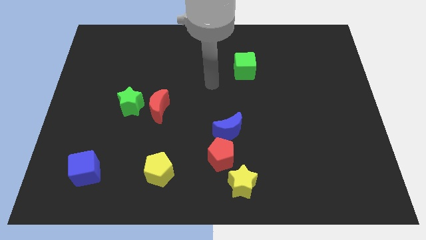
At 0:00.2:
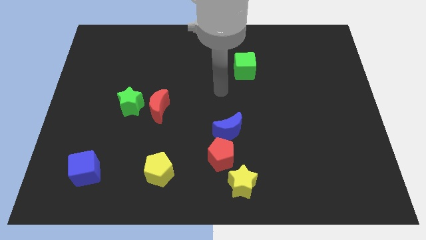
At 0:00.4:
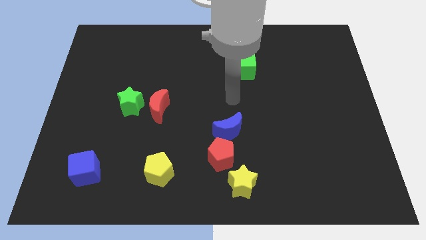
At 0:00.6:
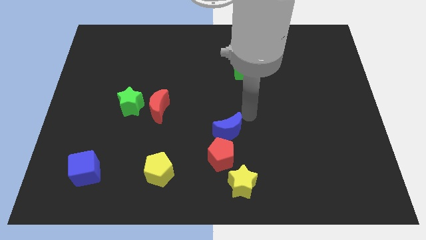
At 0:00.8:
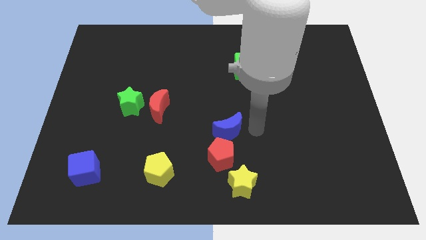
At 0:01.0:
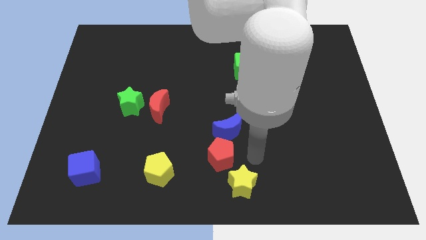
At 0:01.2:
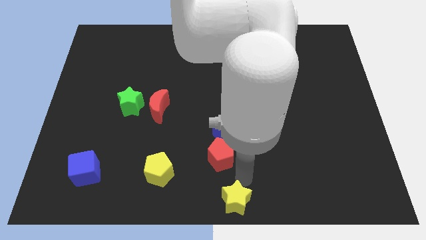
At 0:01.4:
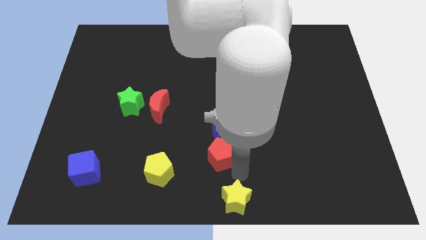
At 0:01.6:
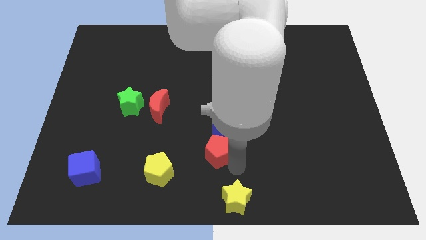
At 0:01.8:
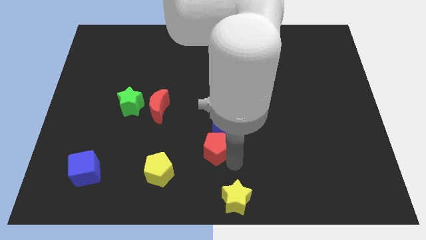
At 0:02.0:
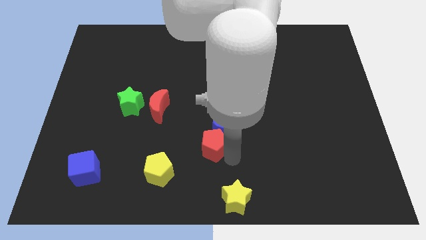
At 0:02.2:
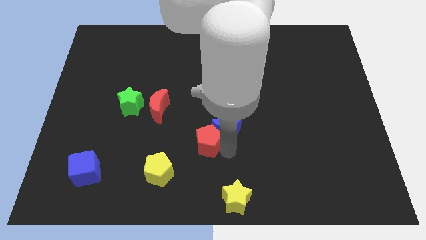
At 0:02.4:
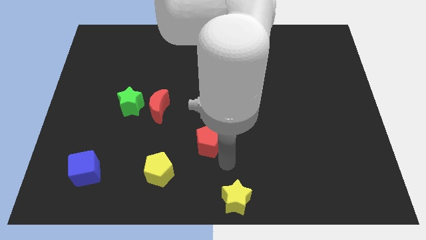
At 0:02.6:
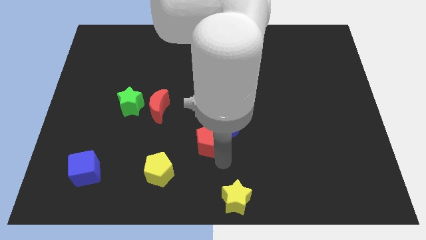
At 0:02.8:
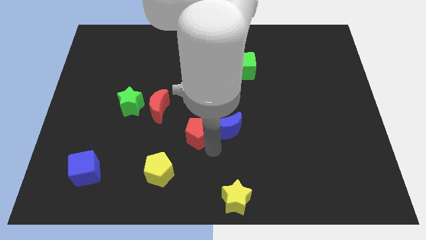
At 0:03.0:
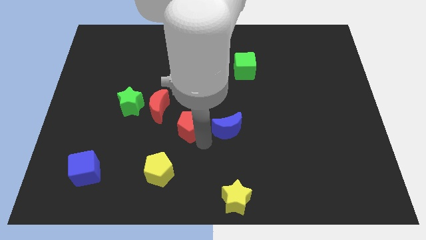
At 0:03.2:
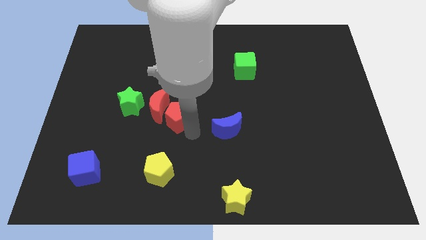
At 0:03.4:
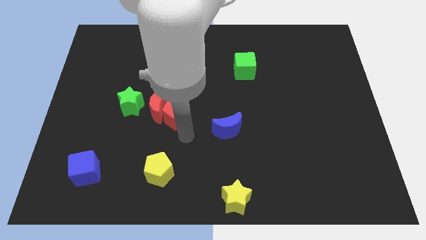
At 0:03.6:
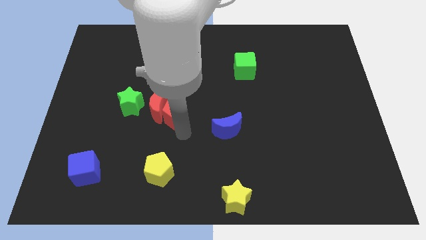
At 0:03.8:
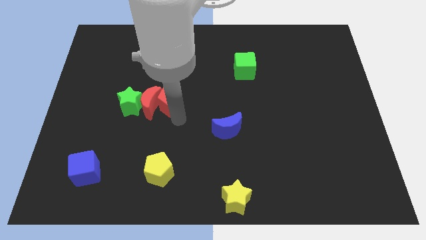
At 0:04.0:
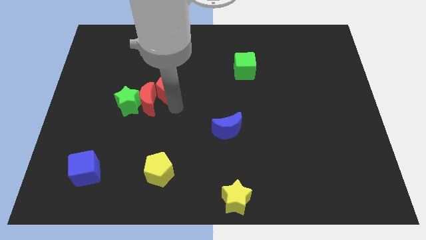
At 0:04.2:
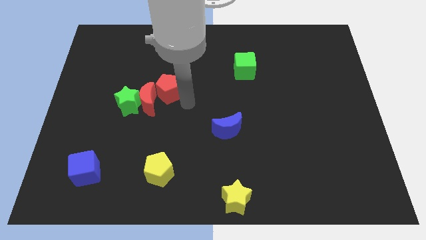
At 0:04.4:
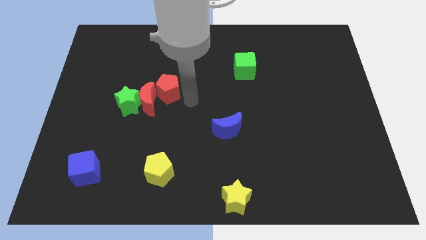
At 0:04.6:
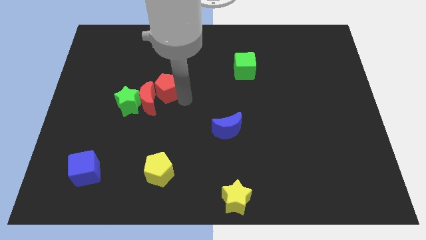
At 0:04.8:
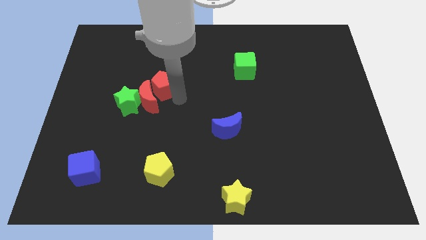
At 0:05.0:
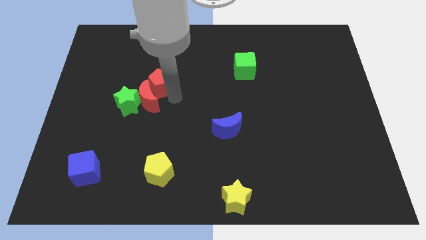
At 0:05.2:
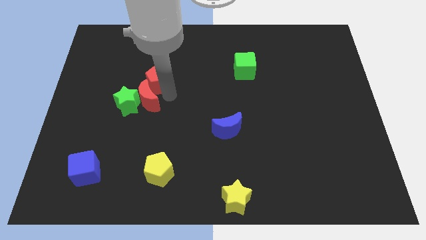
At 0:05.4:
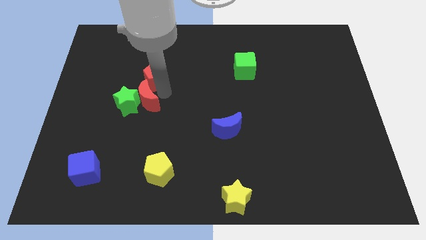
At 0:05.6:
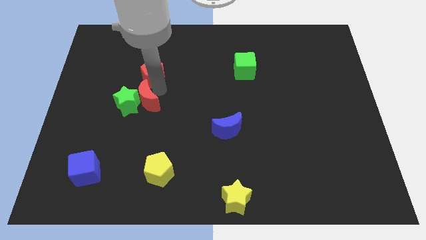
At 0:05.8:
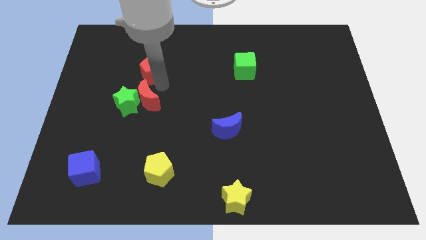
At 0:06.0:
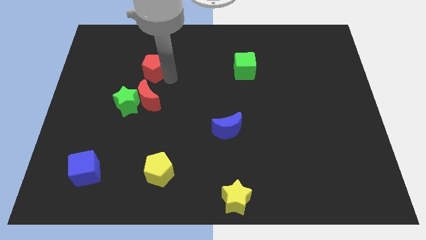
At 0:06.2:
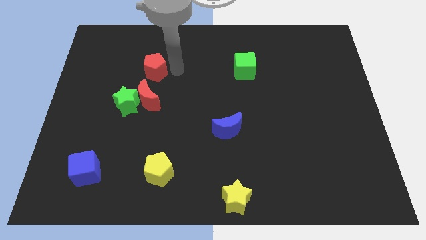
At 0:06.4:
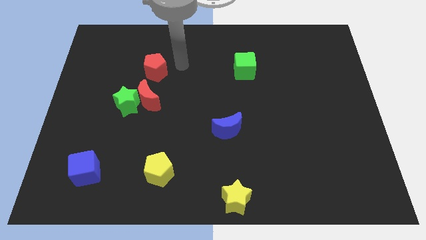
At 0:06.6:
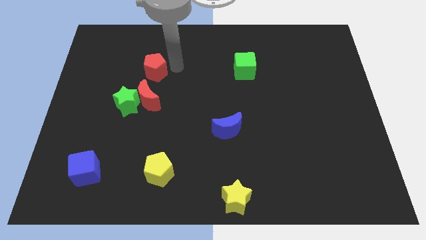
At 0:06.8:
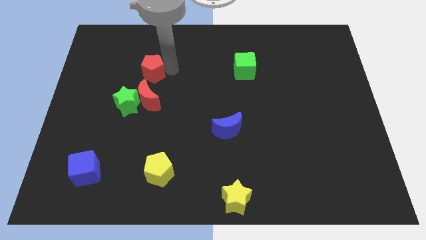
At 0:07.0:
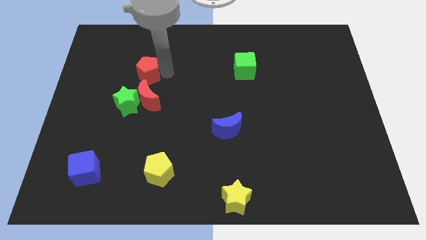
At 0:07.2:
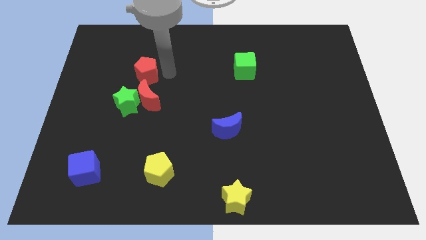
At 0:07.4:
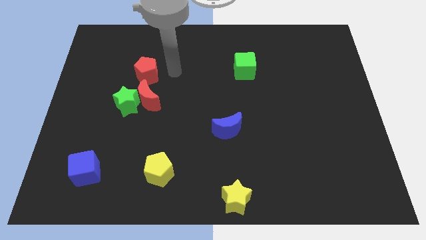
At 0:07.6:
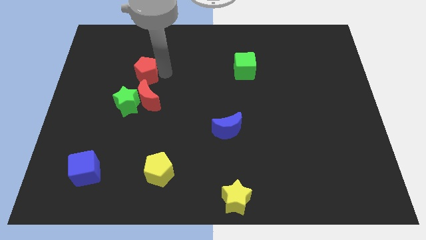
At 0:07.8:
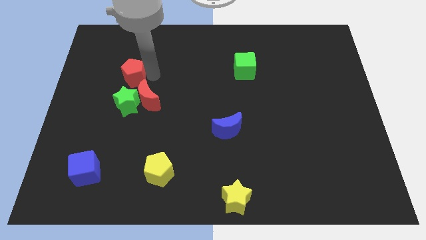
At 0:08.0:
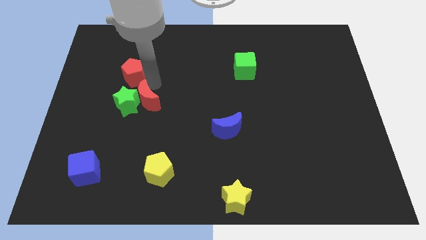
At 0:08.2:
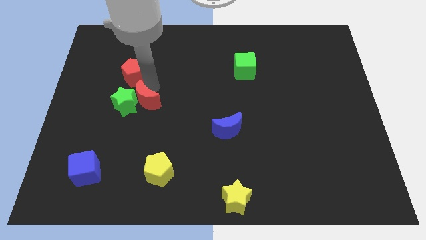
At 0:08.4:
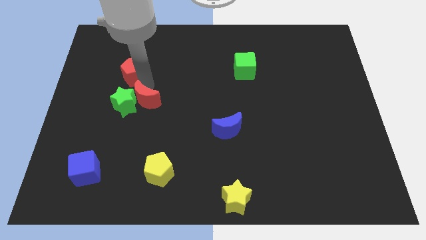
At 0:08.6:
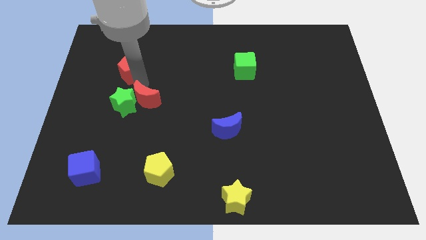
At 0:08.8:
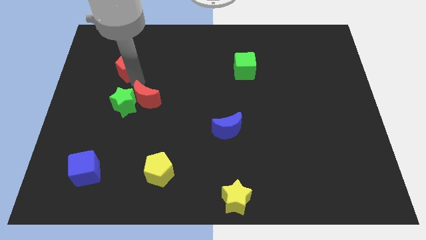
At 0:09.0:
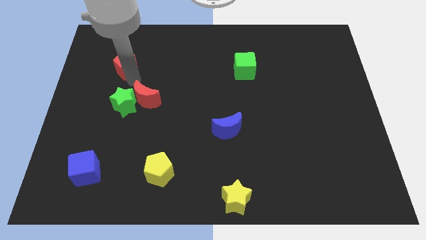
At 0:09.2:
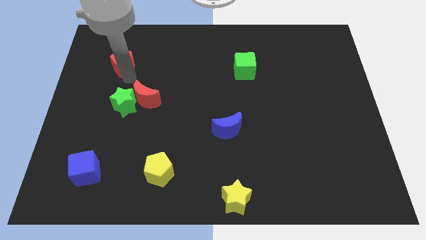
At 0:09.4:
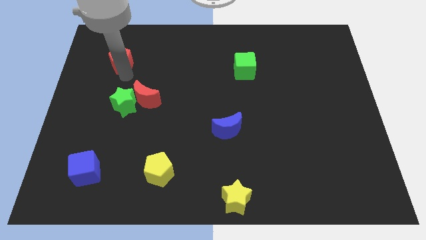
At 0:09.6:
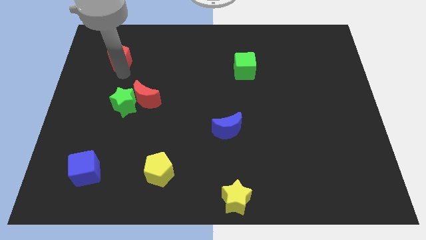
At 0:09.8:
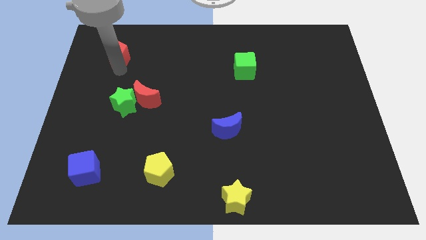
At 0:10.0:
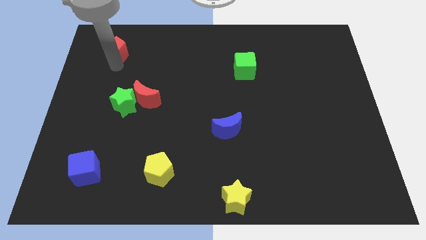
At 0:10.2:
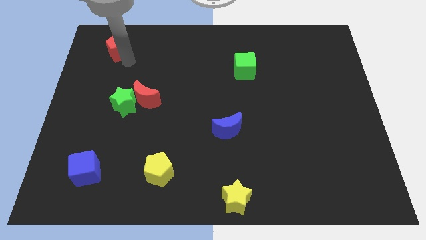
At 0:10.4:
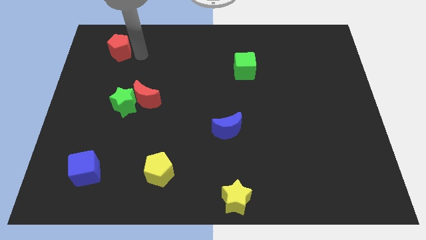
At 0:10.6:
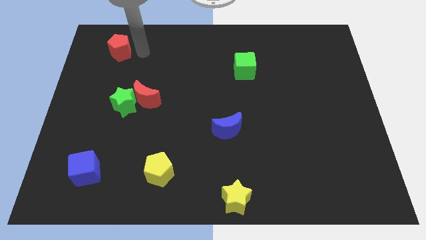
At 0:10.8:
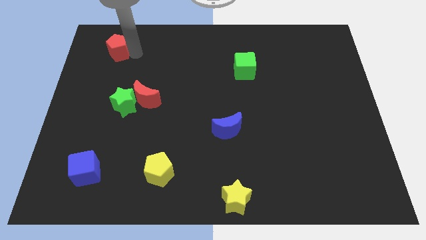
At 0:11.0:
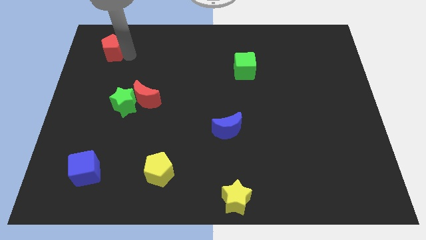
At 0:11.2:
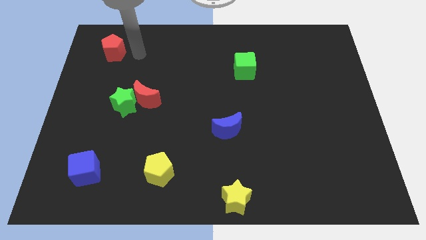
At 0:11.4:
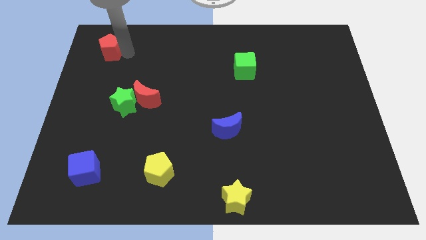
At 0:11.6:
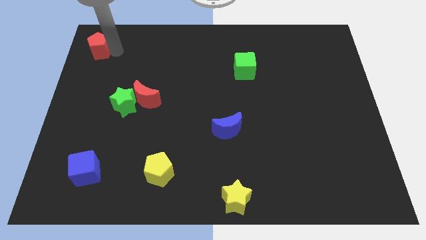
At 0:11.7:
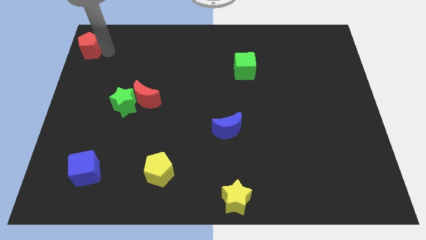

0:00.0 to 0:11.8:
push the red pentagon to the upper left corner

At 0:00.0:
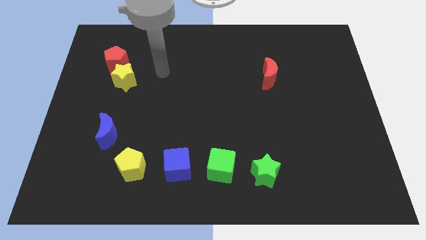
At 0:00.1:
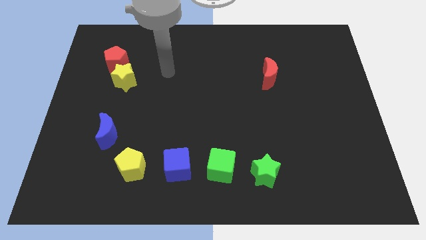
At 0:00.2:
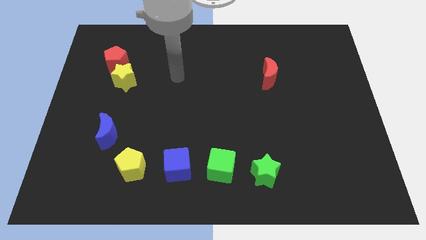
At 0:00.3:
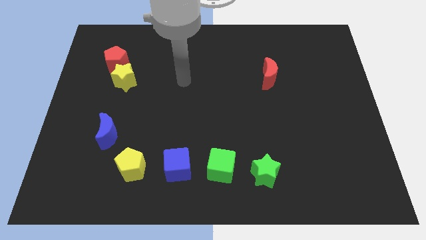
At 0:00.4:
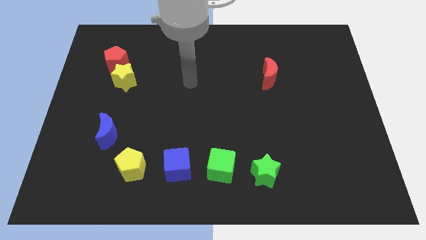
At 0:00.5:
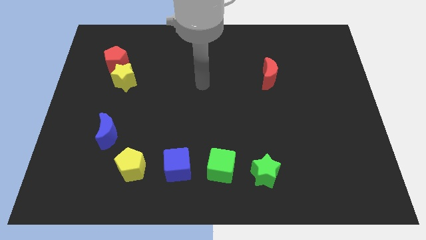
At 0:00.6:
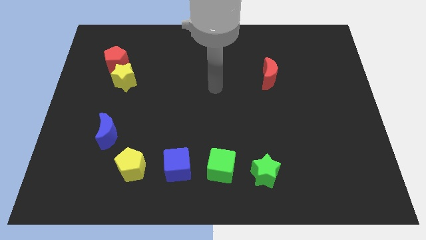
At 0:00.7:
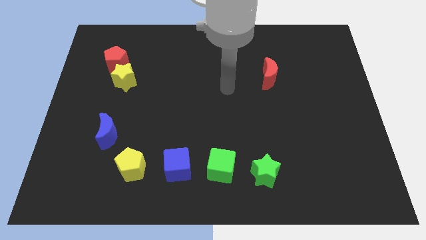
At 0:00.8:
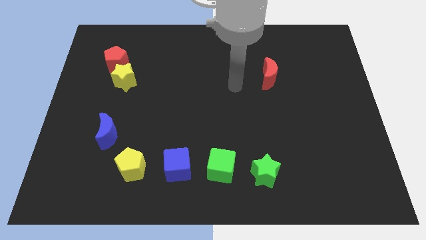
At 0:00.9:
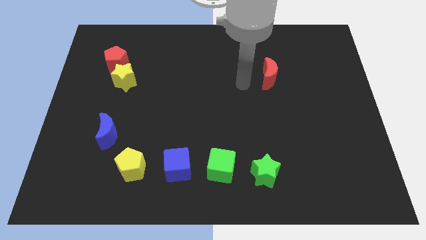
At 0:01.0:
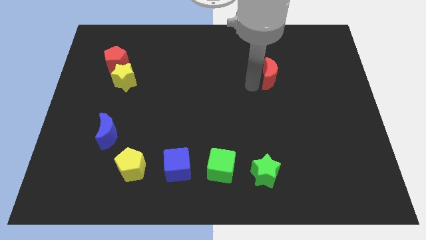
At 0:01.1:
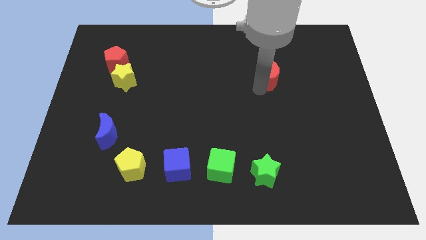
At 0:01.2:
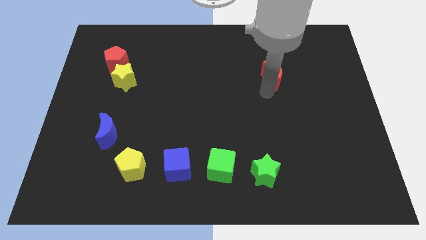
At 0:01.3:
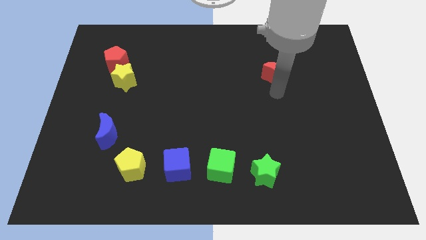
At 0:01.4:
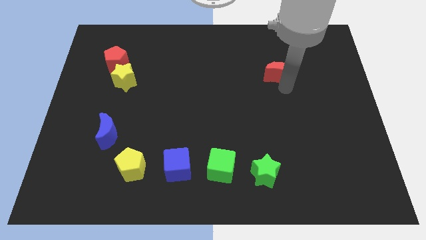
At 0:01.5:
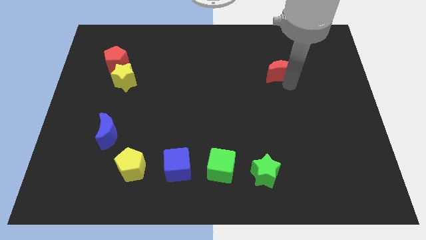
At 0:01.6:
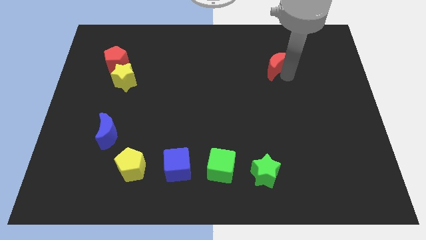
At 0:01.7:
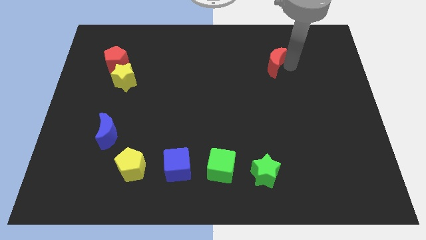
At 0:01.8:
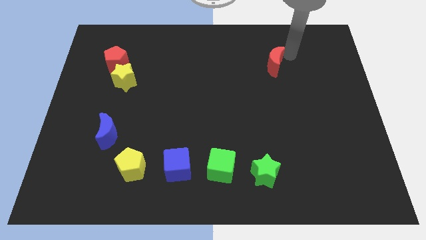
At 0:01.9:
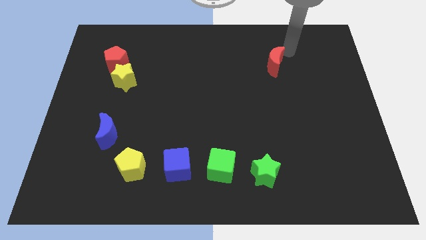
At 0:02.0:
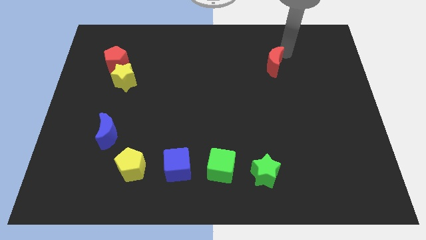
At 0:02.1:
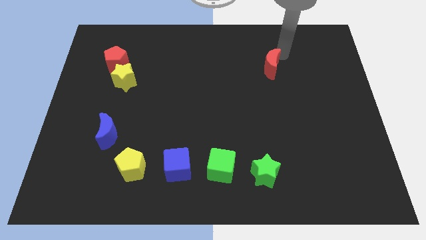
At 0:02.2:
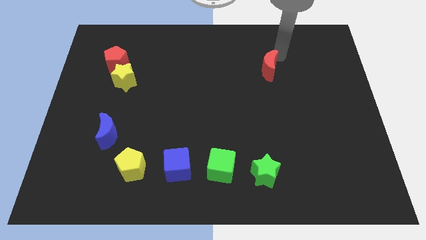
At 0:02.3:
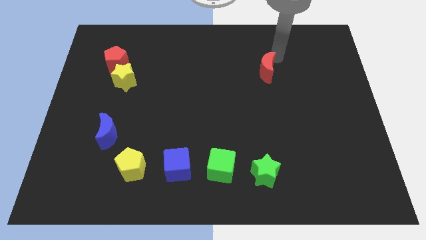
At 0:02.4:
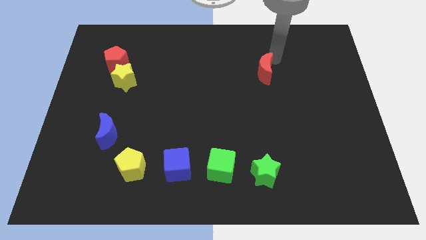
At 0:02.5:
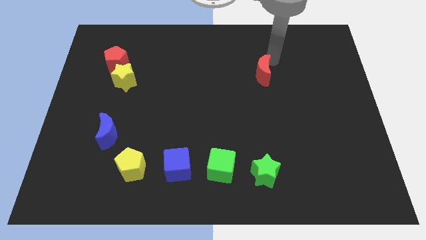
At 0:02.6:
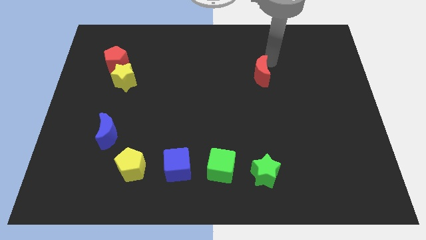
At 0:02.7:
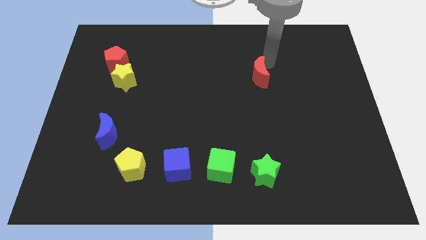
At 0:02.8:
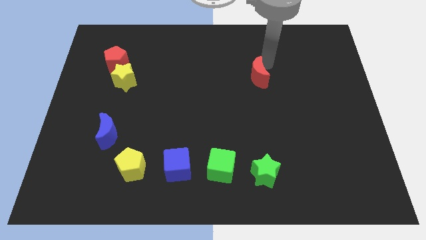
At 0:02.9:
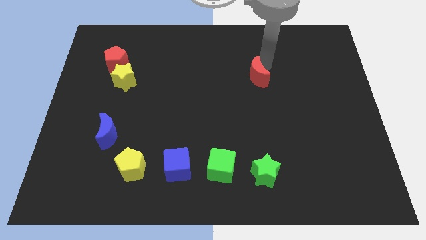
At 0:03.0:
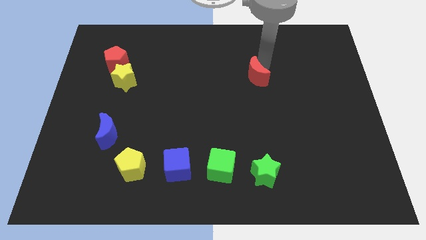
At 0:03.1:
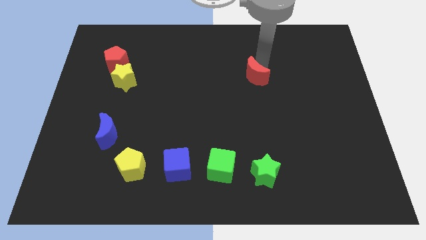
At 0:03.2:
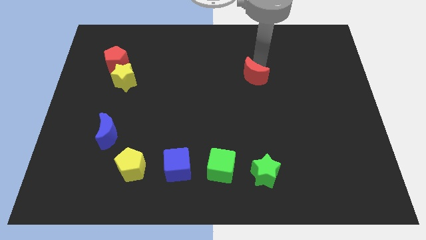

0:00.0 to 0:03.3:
push the red moon to the middle of the board
